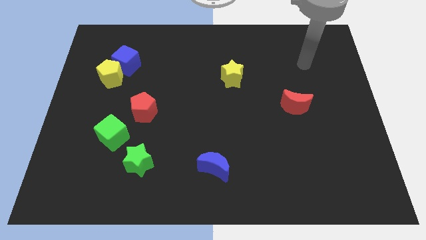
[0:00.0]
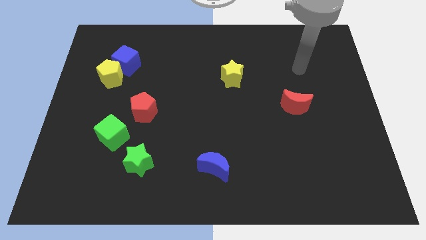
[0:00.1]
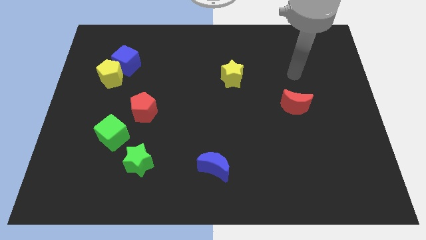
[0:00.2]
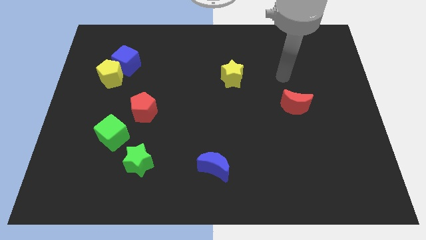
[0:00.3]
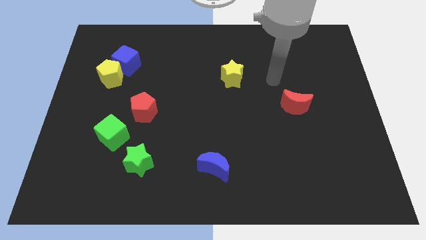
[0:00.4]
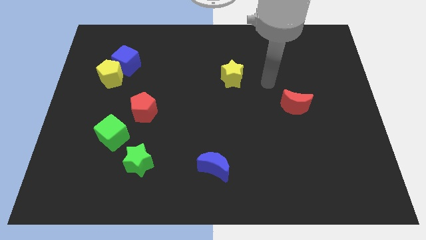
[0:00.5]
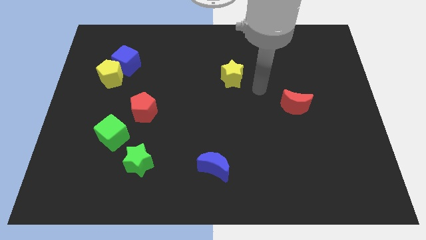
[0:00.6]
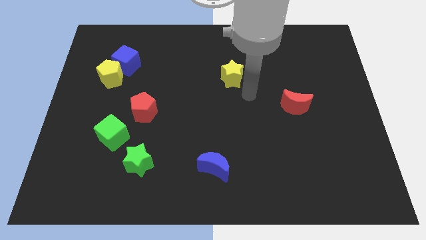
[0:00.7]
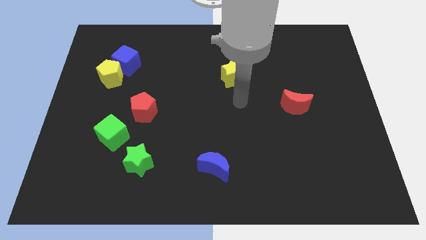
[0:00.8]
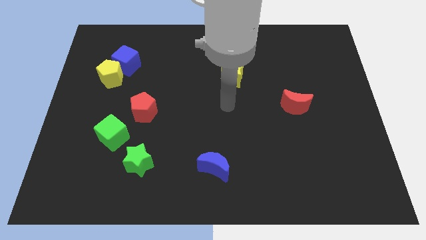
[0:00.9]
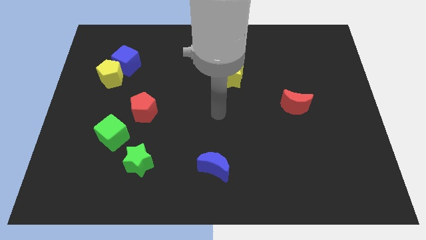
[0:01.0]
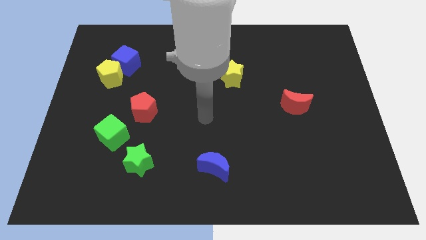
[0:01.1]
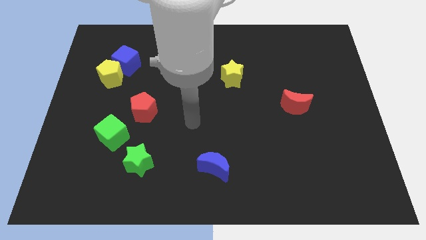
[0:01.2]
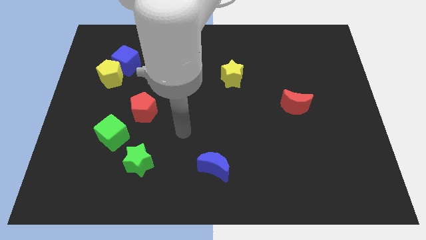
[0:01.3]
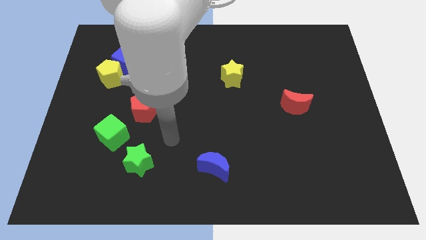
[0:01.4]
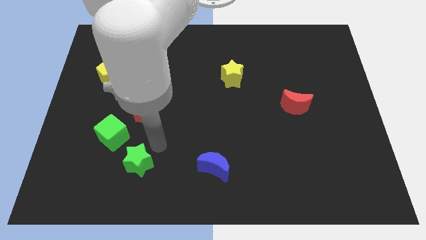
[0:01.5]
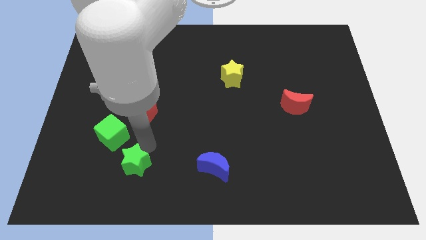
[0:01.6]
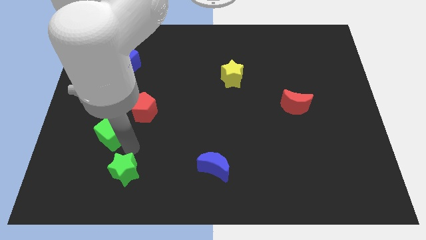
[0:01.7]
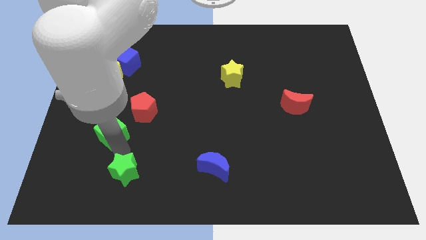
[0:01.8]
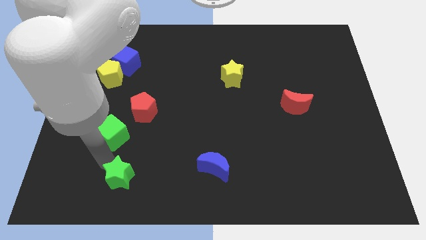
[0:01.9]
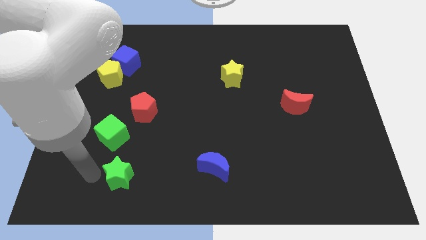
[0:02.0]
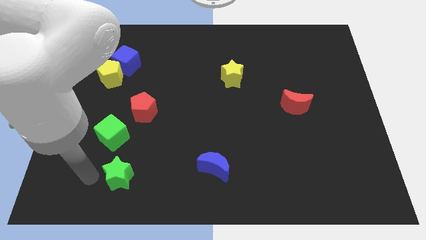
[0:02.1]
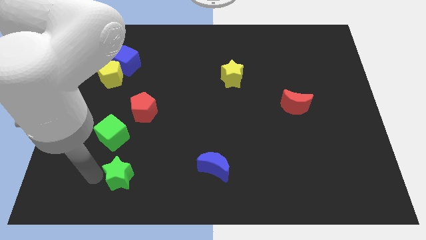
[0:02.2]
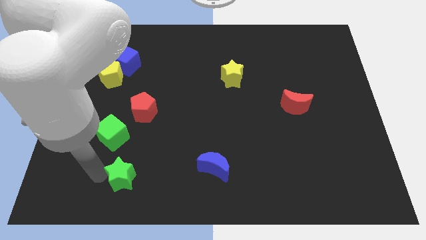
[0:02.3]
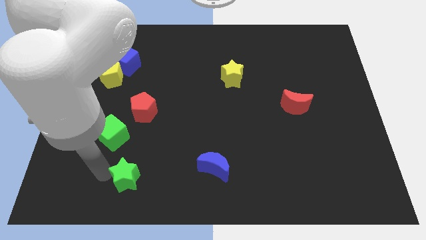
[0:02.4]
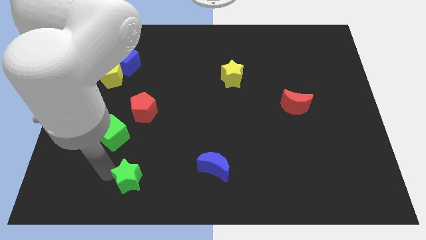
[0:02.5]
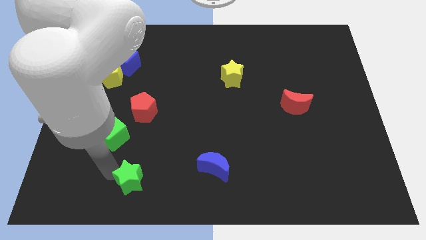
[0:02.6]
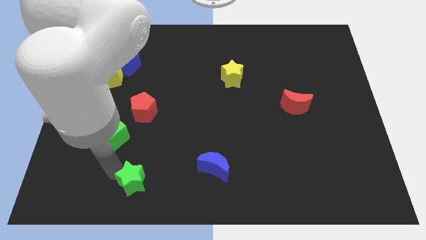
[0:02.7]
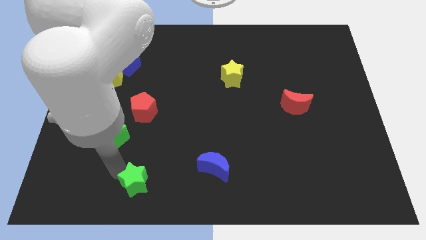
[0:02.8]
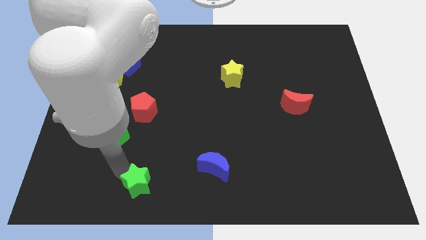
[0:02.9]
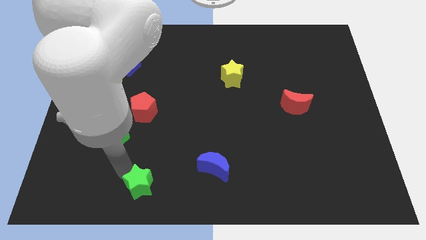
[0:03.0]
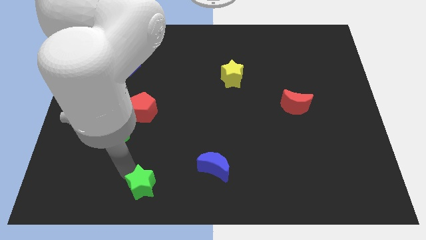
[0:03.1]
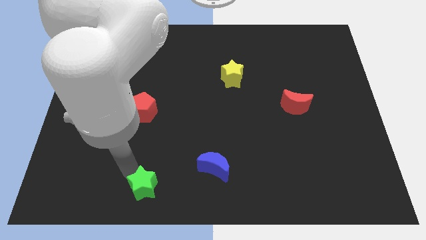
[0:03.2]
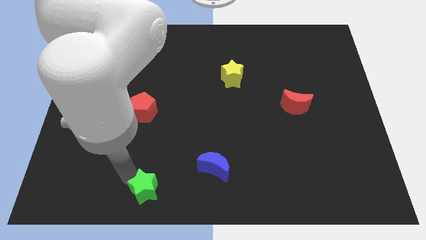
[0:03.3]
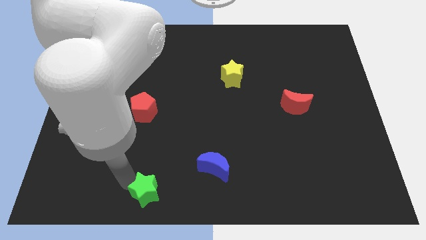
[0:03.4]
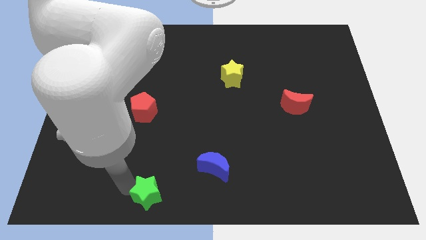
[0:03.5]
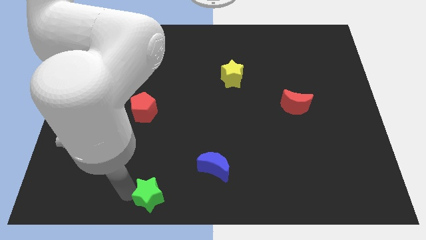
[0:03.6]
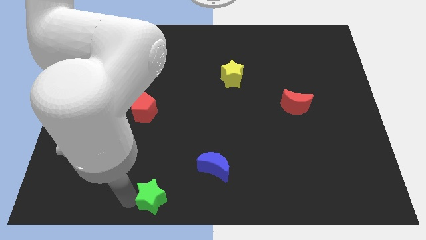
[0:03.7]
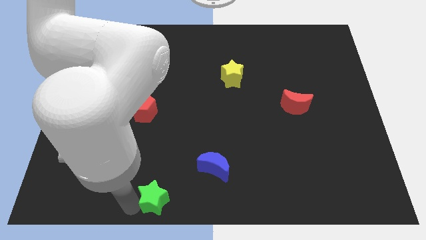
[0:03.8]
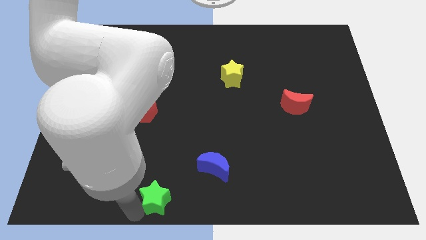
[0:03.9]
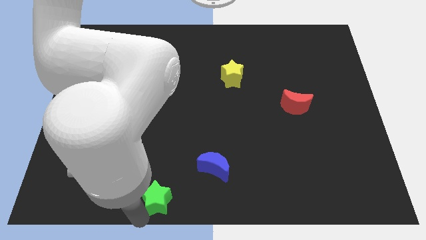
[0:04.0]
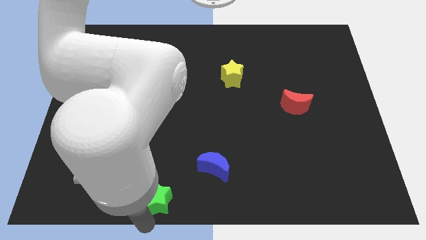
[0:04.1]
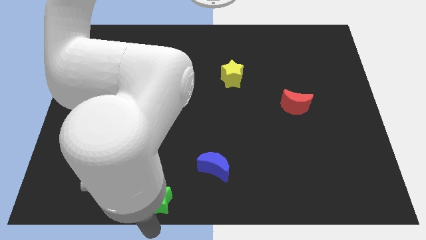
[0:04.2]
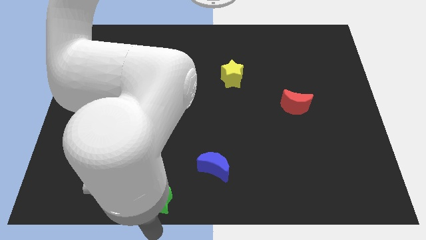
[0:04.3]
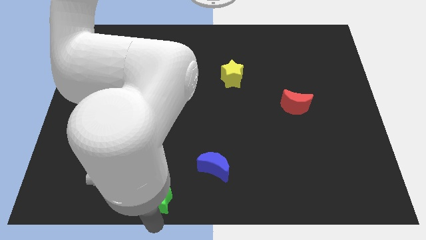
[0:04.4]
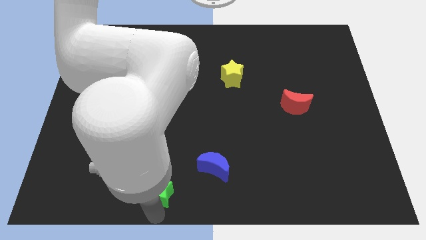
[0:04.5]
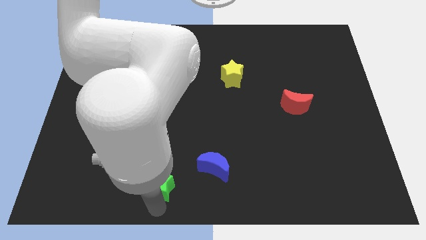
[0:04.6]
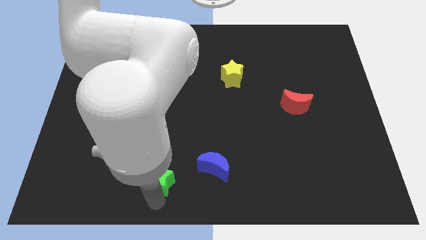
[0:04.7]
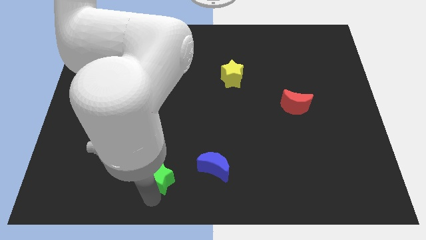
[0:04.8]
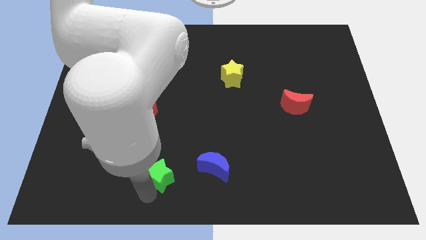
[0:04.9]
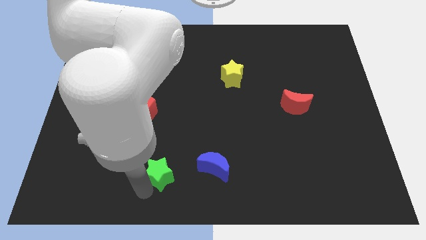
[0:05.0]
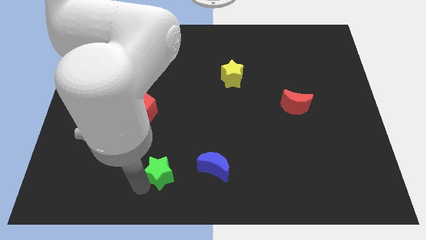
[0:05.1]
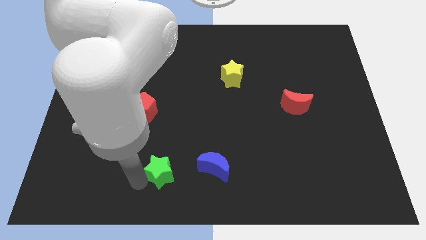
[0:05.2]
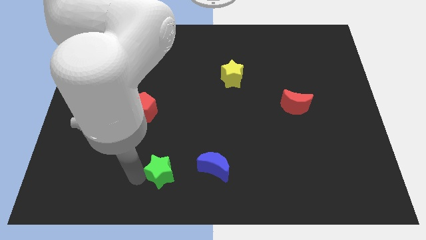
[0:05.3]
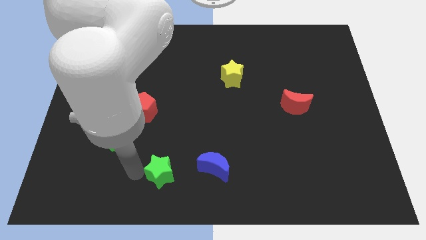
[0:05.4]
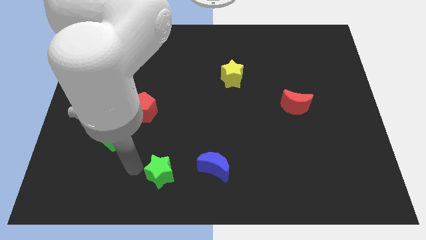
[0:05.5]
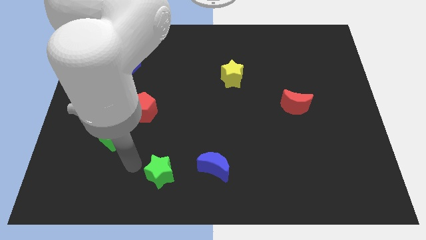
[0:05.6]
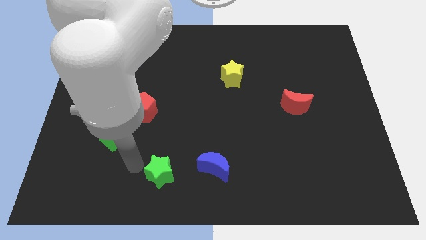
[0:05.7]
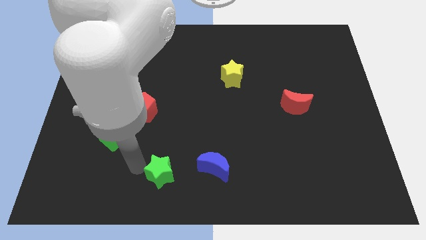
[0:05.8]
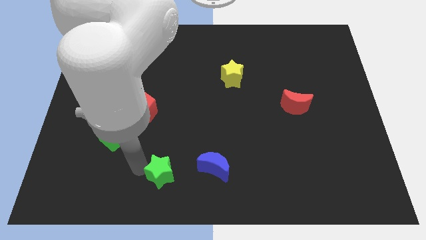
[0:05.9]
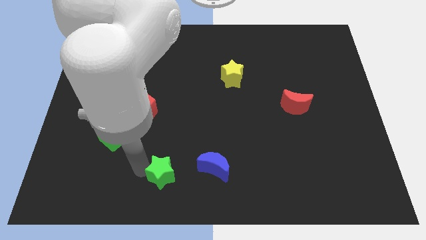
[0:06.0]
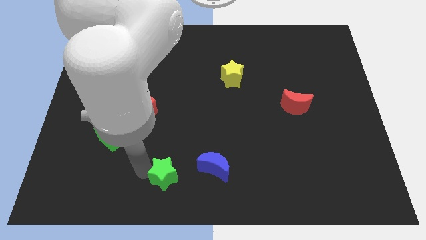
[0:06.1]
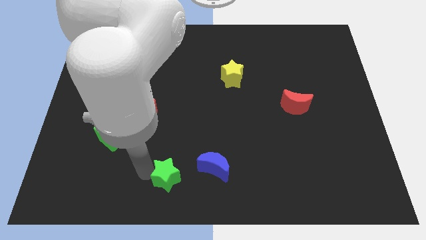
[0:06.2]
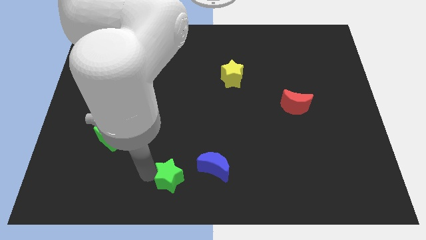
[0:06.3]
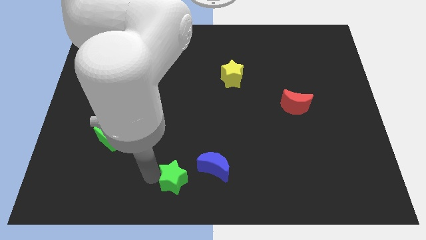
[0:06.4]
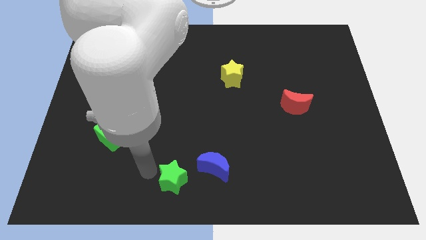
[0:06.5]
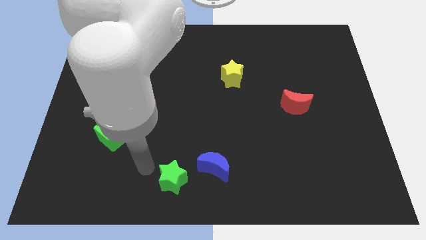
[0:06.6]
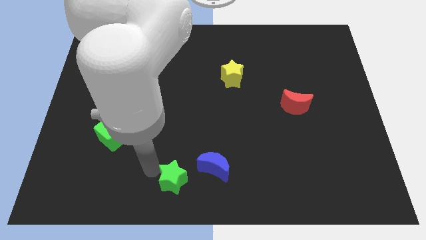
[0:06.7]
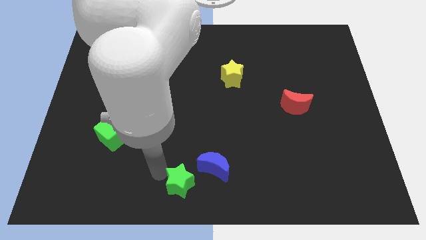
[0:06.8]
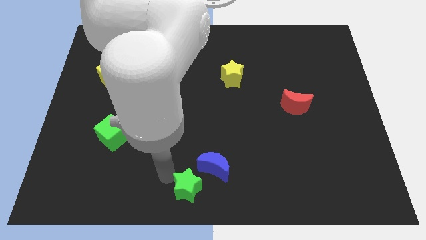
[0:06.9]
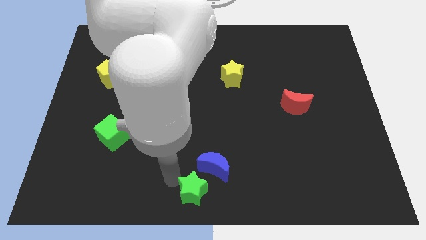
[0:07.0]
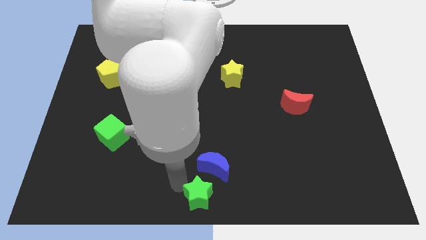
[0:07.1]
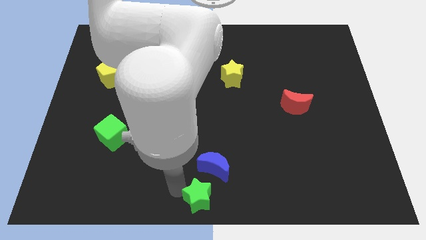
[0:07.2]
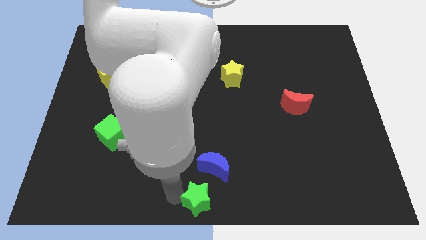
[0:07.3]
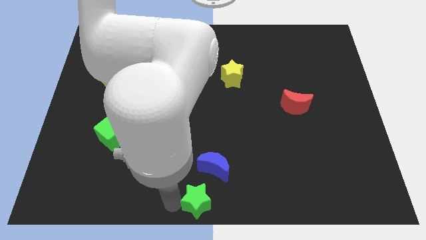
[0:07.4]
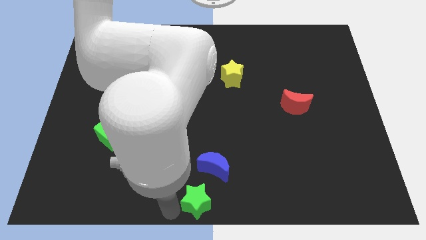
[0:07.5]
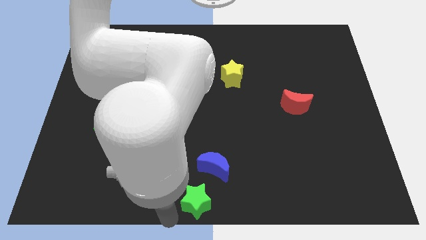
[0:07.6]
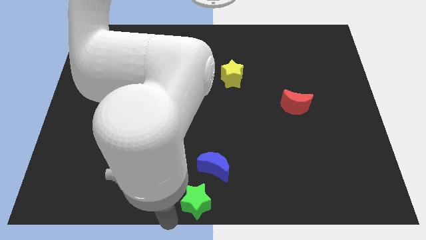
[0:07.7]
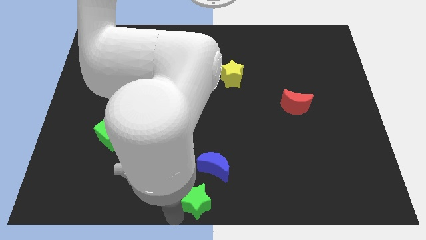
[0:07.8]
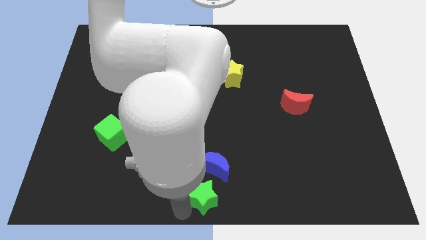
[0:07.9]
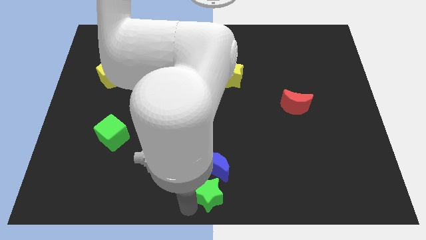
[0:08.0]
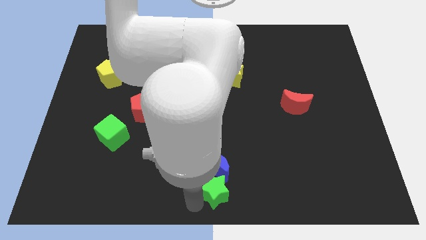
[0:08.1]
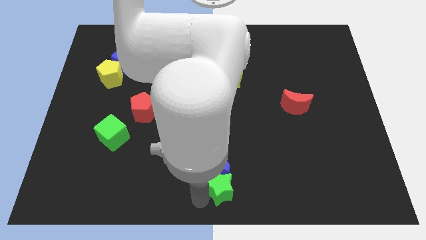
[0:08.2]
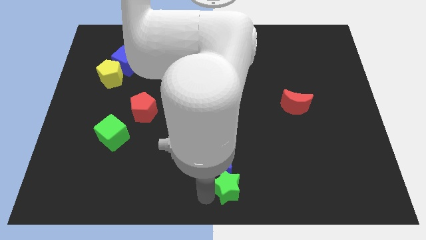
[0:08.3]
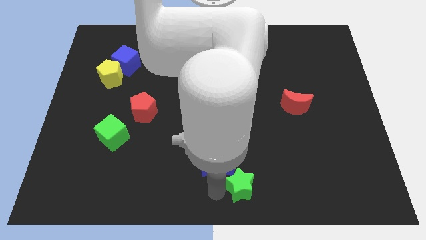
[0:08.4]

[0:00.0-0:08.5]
push the green star just right of the blue moon
